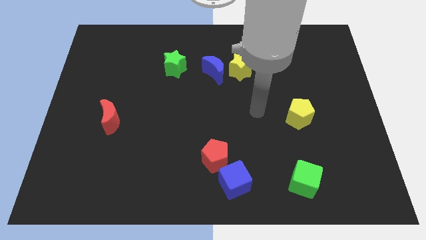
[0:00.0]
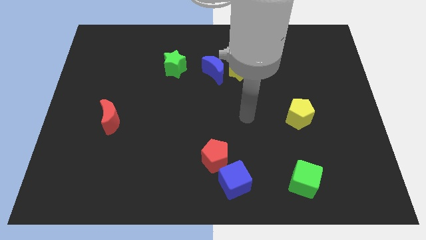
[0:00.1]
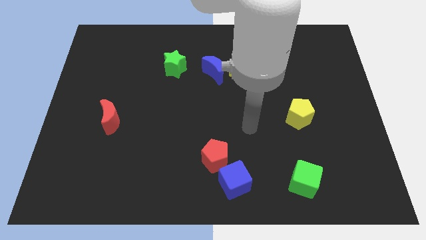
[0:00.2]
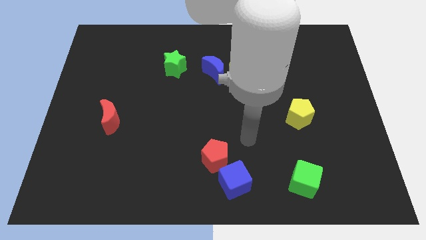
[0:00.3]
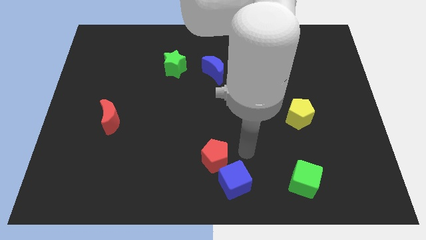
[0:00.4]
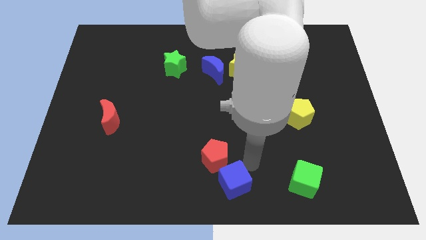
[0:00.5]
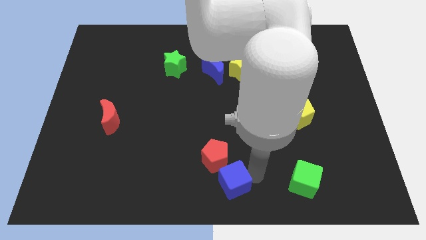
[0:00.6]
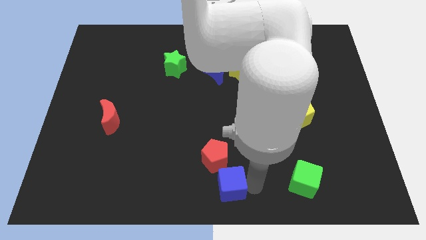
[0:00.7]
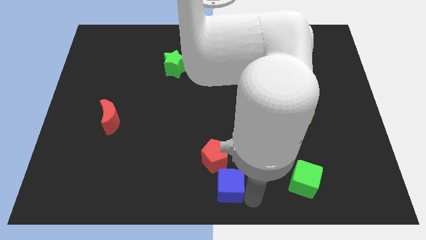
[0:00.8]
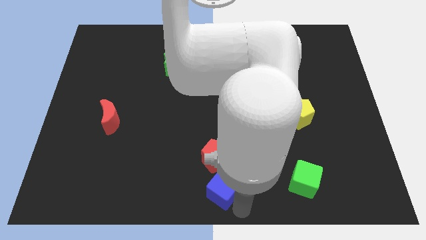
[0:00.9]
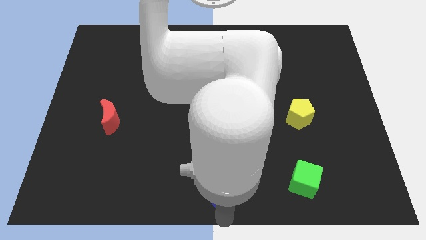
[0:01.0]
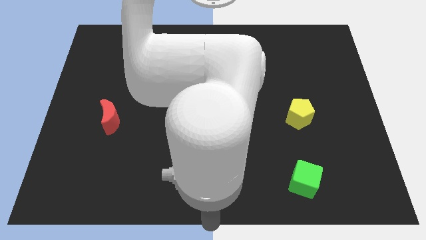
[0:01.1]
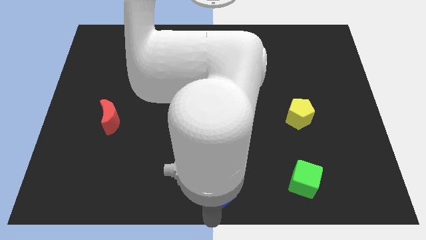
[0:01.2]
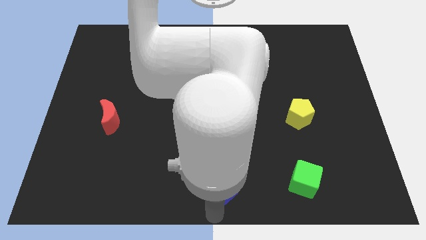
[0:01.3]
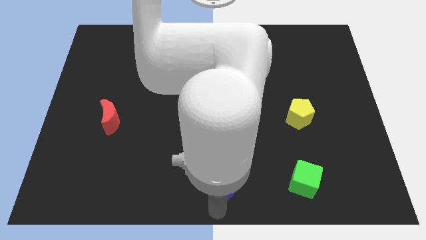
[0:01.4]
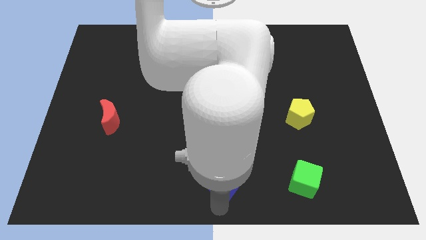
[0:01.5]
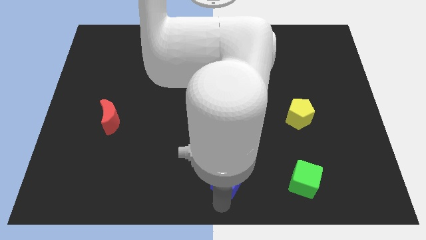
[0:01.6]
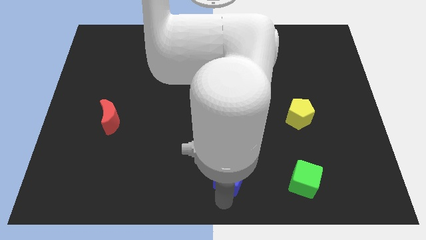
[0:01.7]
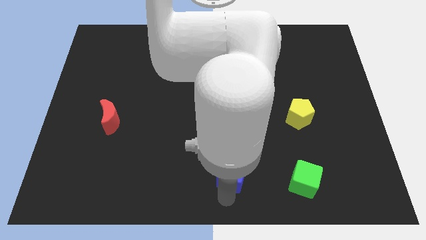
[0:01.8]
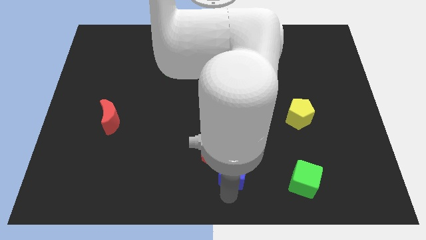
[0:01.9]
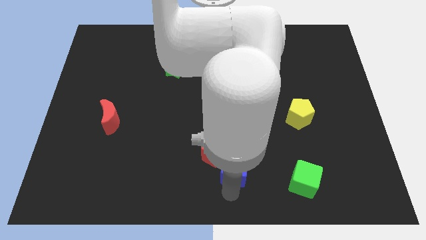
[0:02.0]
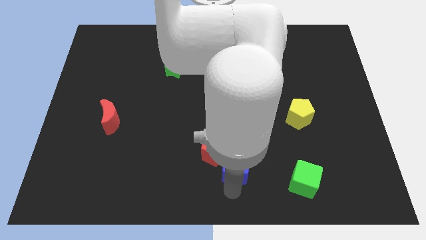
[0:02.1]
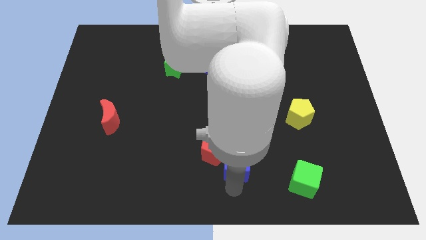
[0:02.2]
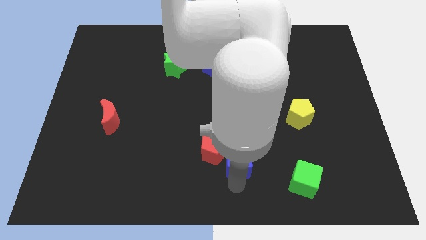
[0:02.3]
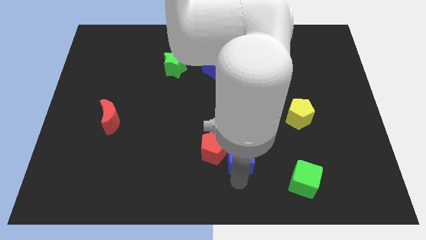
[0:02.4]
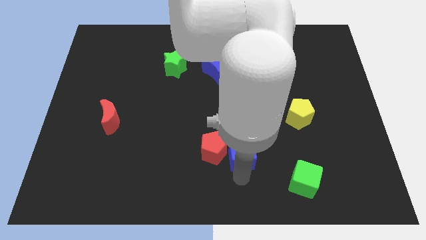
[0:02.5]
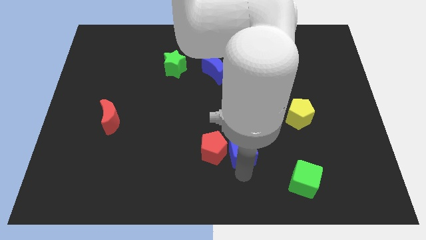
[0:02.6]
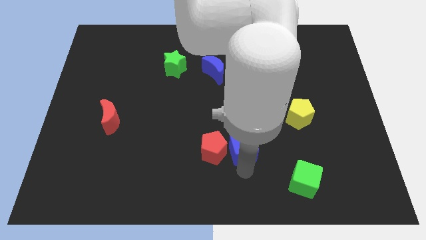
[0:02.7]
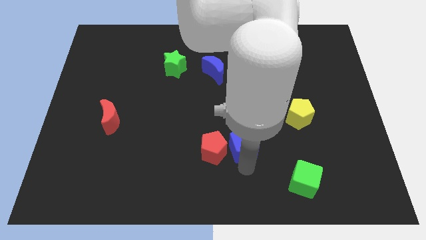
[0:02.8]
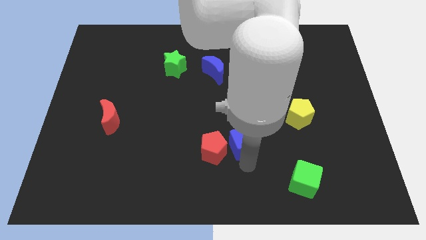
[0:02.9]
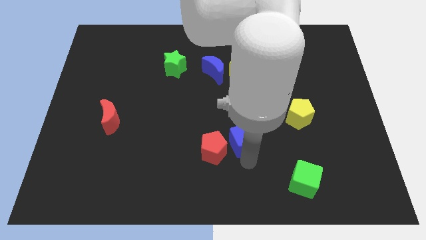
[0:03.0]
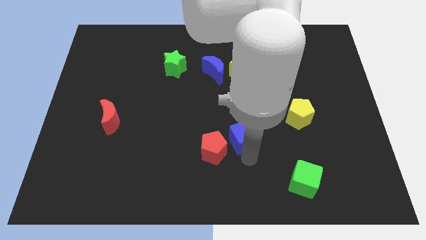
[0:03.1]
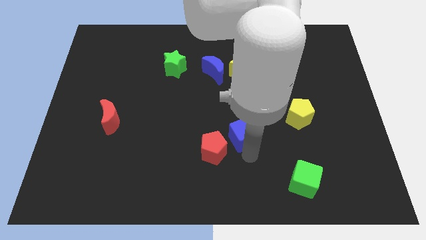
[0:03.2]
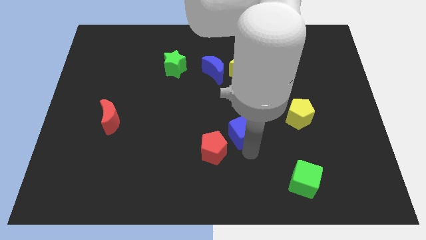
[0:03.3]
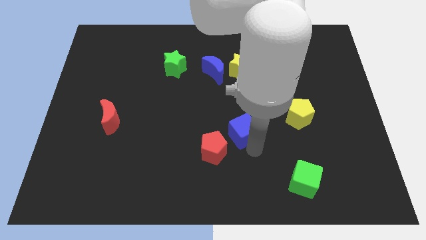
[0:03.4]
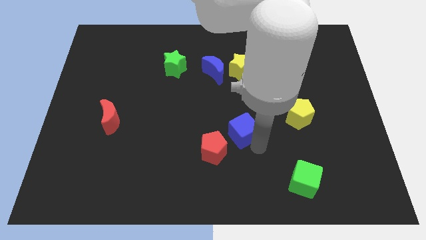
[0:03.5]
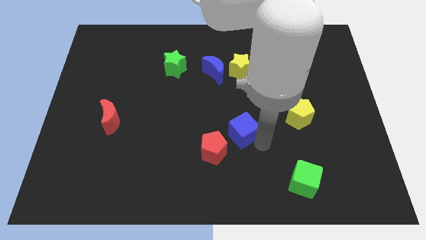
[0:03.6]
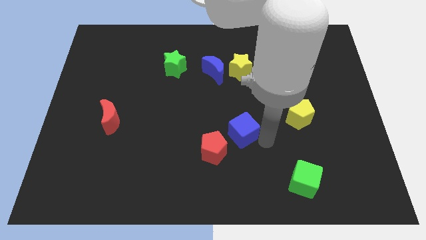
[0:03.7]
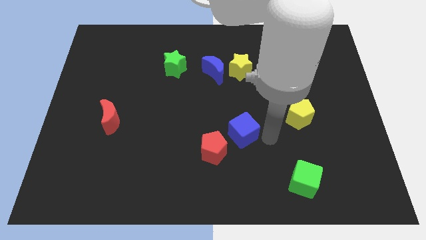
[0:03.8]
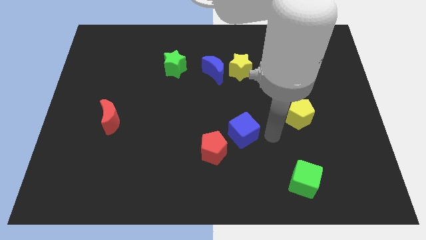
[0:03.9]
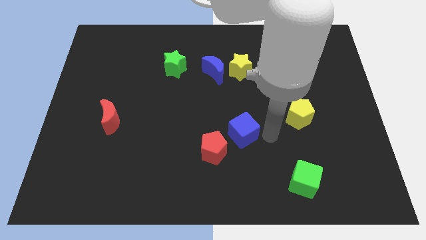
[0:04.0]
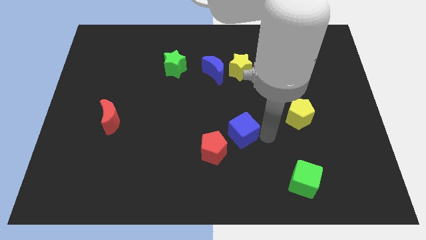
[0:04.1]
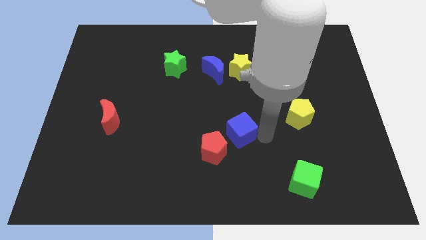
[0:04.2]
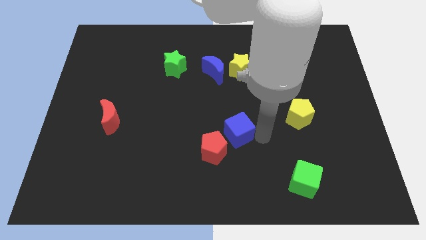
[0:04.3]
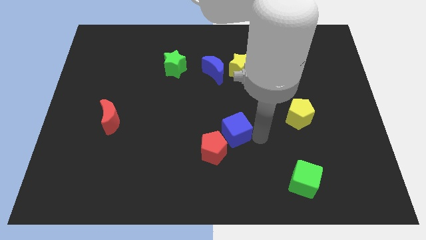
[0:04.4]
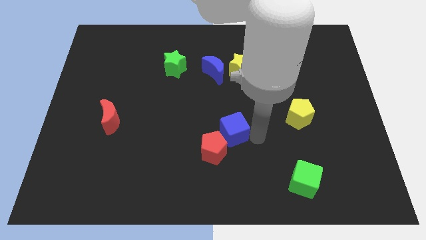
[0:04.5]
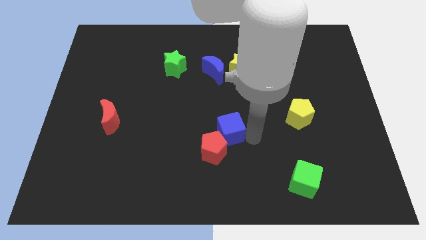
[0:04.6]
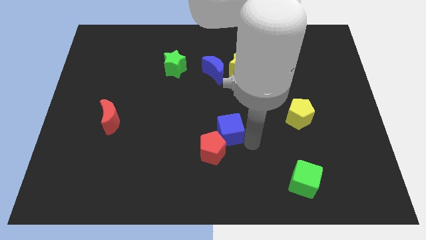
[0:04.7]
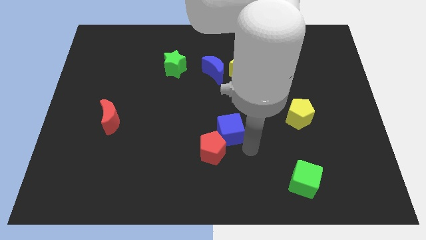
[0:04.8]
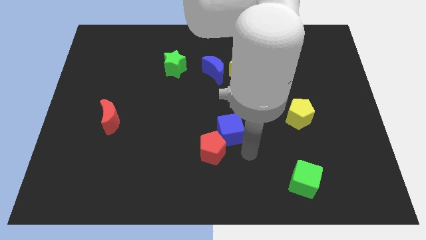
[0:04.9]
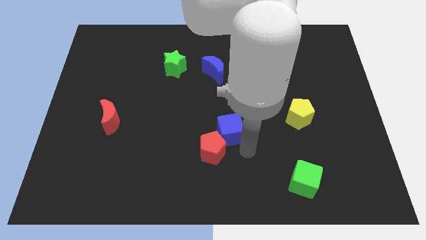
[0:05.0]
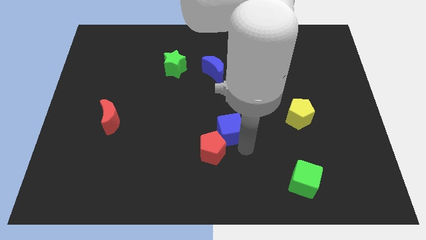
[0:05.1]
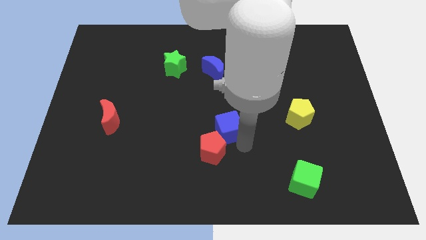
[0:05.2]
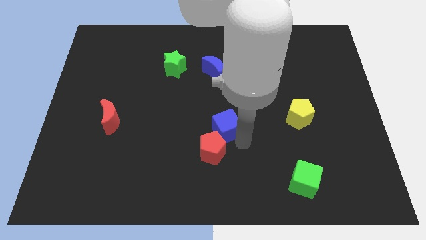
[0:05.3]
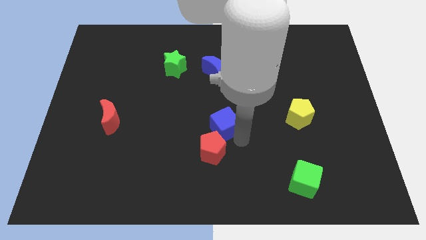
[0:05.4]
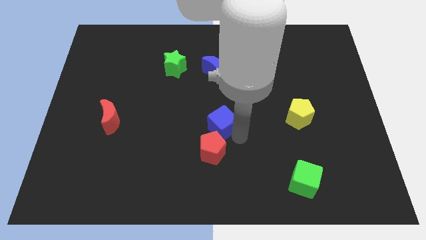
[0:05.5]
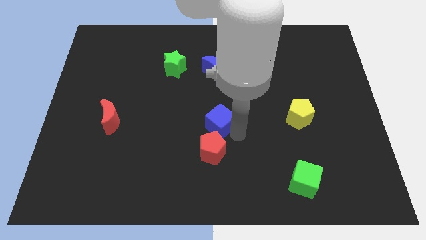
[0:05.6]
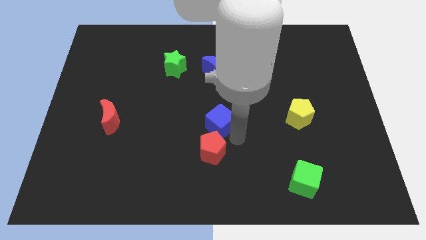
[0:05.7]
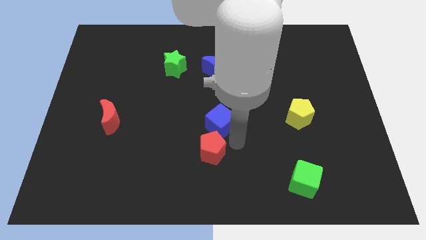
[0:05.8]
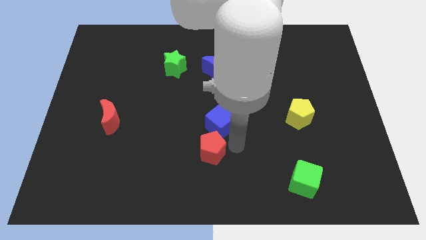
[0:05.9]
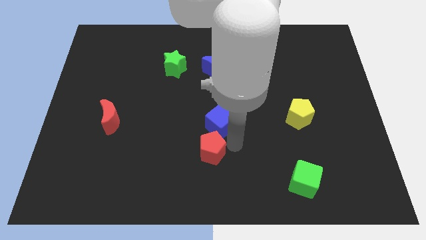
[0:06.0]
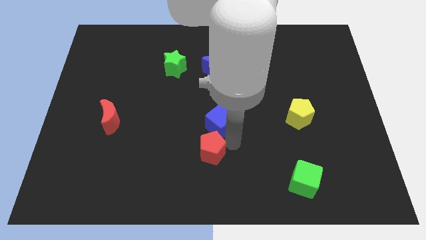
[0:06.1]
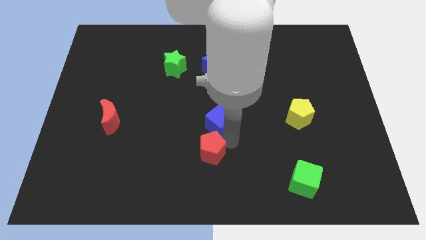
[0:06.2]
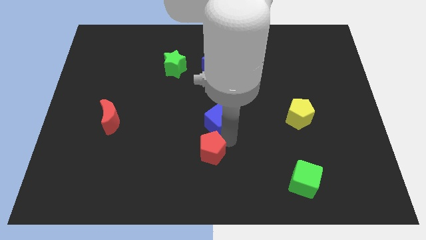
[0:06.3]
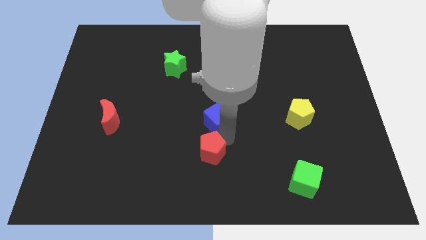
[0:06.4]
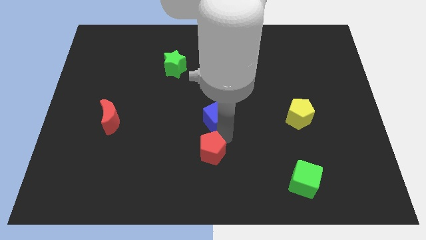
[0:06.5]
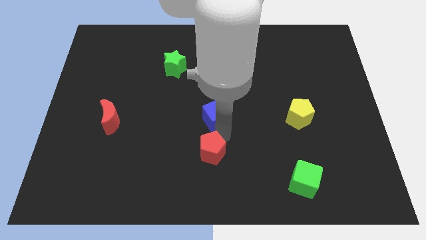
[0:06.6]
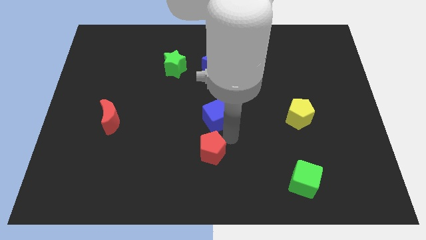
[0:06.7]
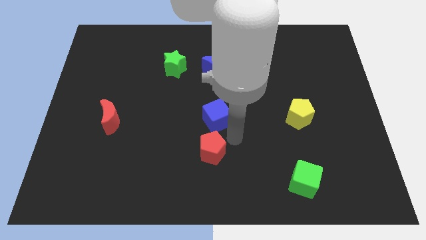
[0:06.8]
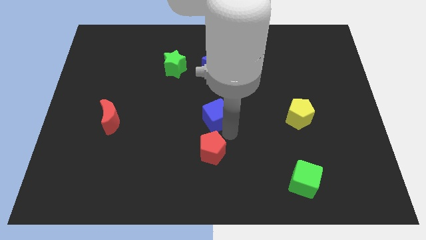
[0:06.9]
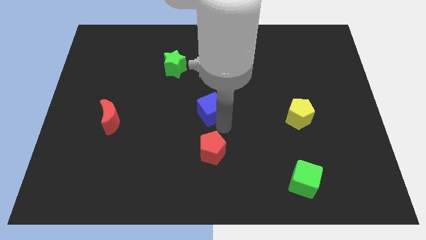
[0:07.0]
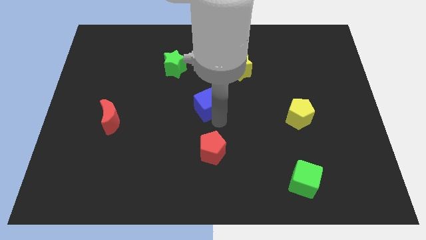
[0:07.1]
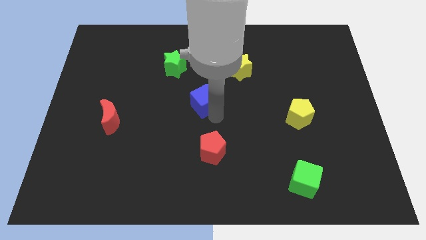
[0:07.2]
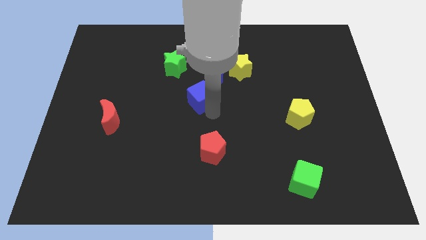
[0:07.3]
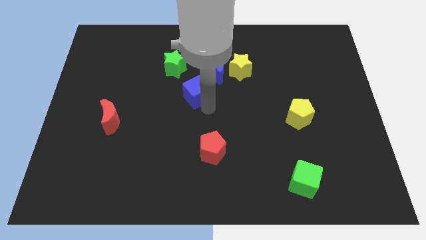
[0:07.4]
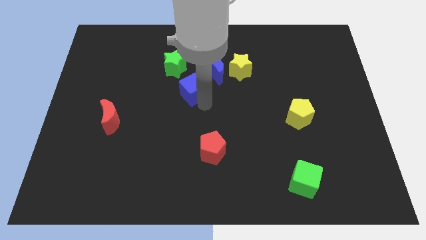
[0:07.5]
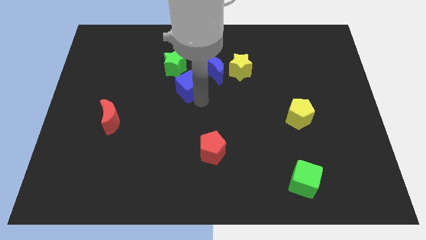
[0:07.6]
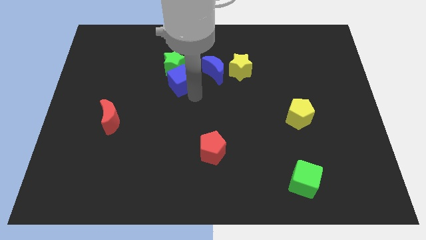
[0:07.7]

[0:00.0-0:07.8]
push the blue cube next to the green star
